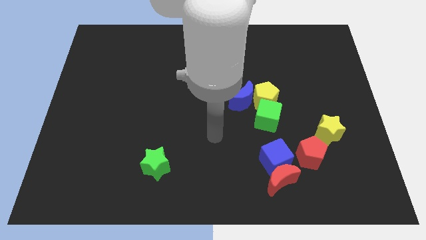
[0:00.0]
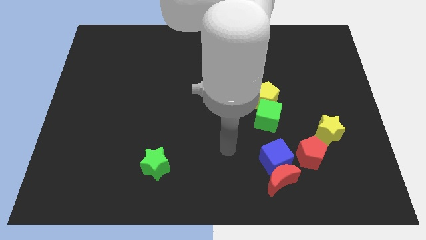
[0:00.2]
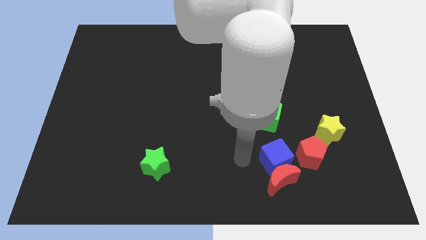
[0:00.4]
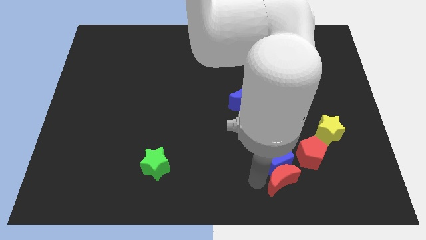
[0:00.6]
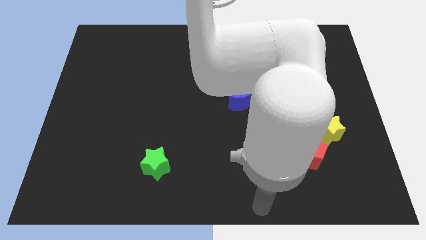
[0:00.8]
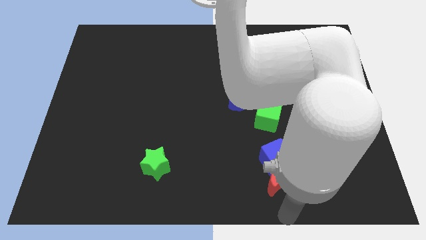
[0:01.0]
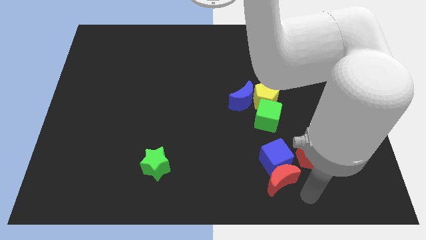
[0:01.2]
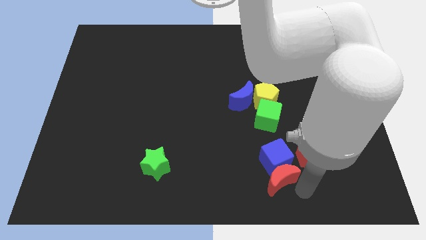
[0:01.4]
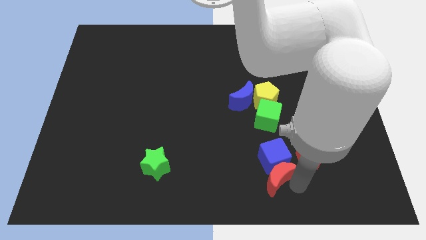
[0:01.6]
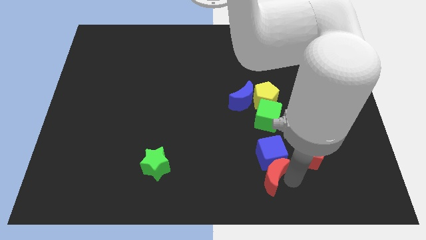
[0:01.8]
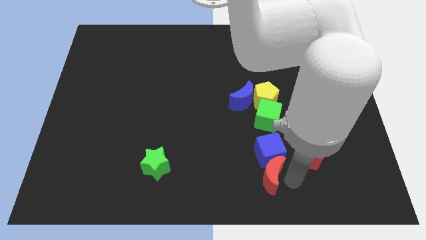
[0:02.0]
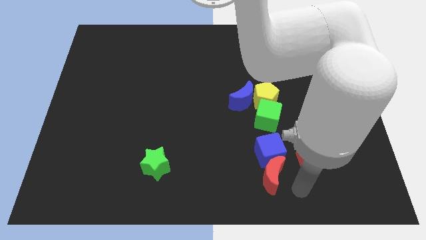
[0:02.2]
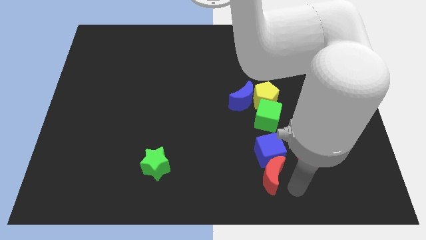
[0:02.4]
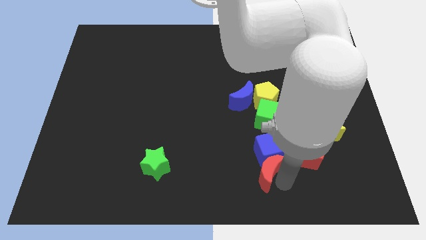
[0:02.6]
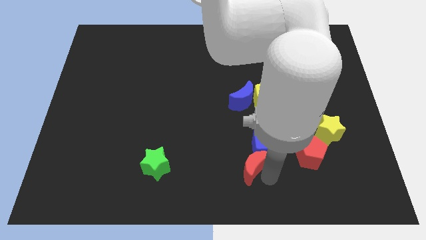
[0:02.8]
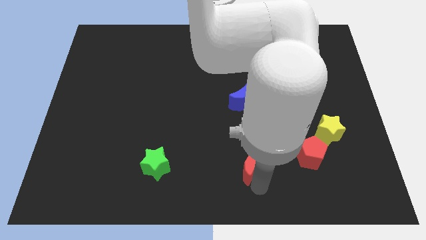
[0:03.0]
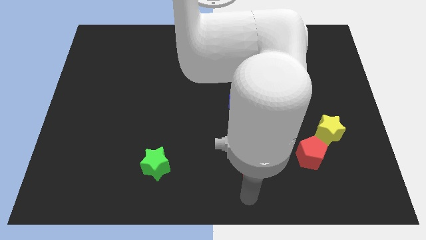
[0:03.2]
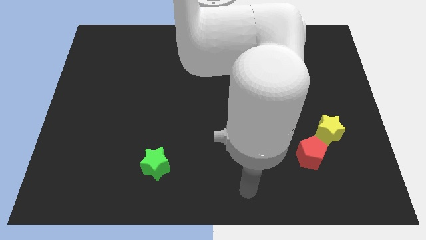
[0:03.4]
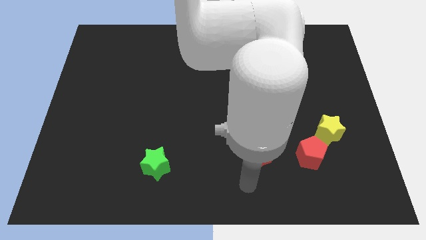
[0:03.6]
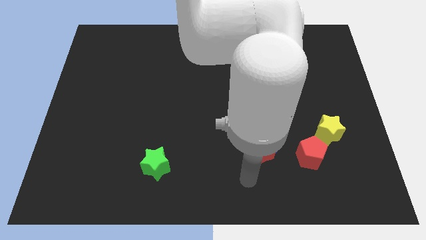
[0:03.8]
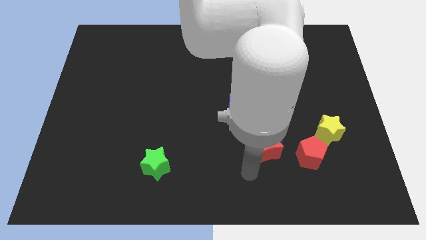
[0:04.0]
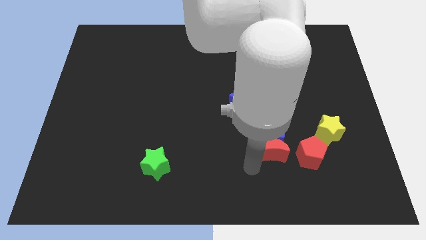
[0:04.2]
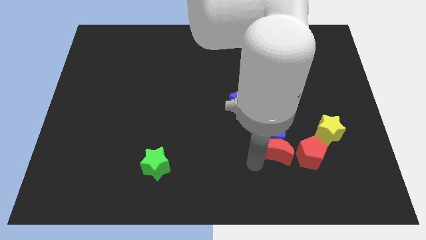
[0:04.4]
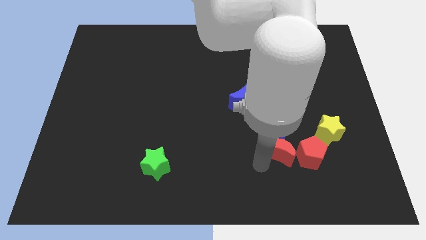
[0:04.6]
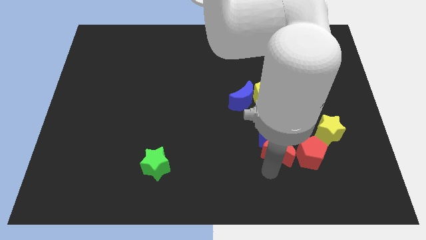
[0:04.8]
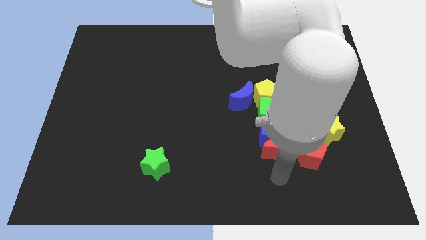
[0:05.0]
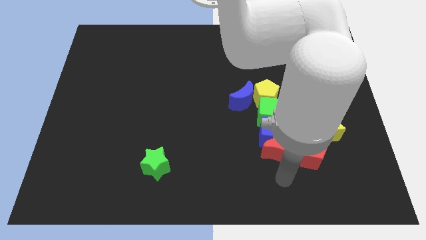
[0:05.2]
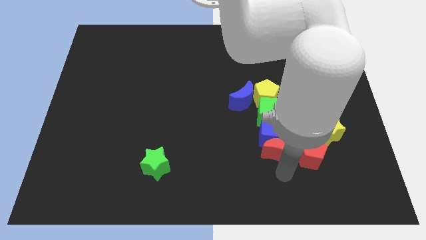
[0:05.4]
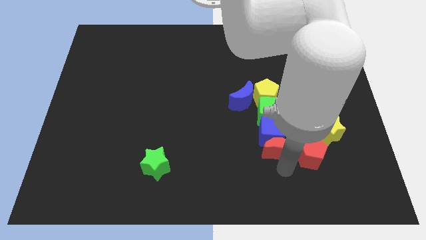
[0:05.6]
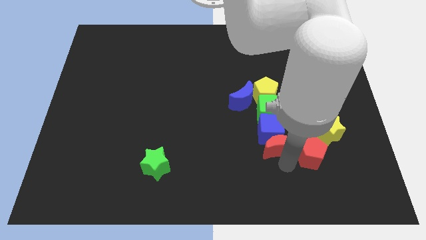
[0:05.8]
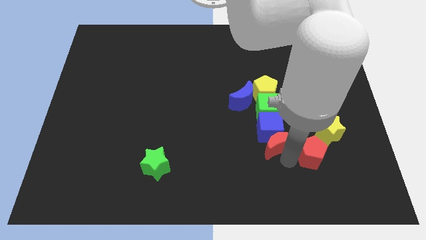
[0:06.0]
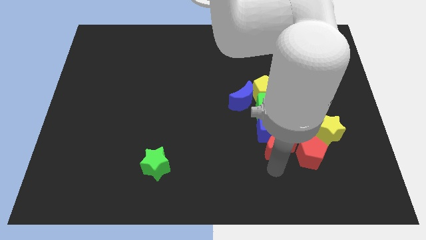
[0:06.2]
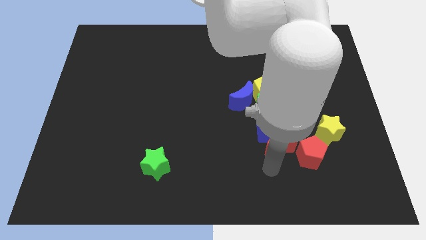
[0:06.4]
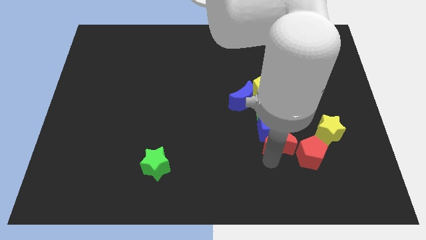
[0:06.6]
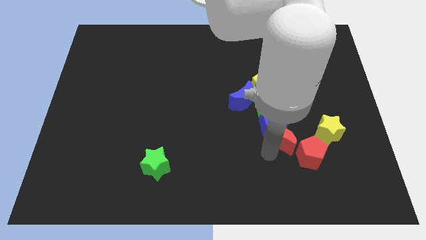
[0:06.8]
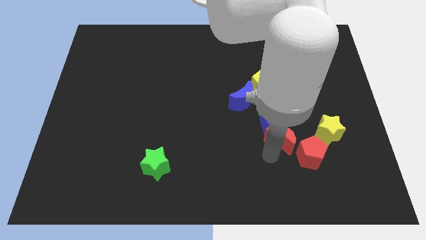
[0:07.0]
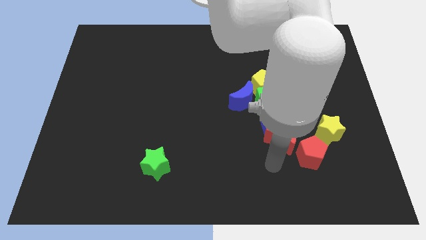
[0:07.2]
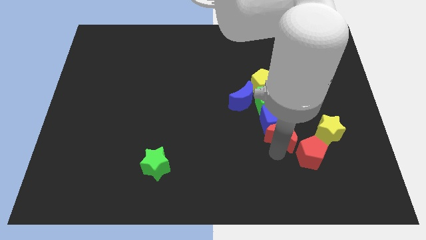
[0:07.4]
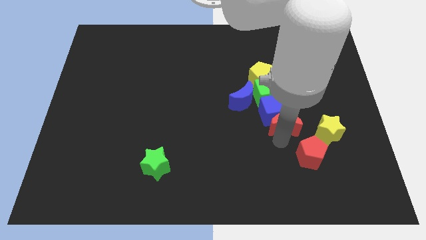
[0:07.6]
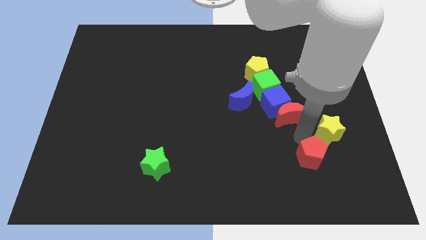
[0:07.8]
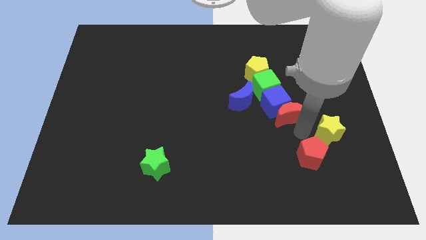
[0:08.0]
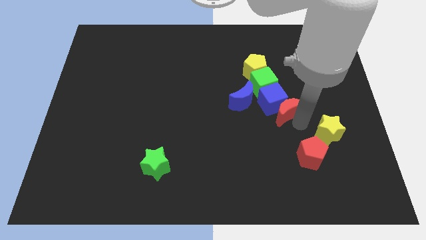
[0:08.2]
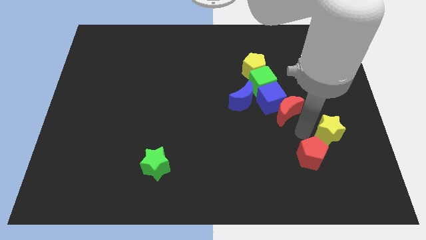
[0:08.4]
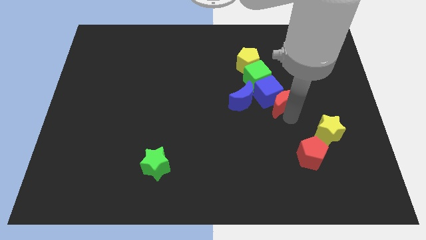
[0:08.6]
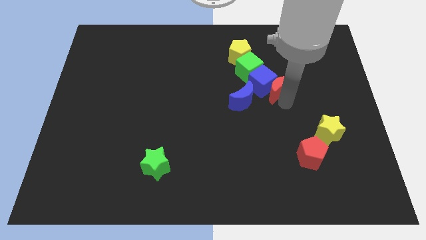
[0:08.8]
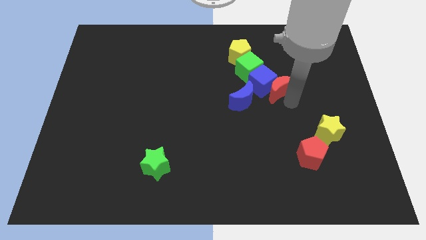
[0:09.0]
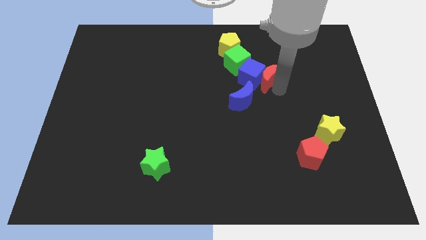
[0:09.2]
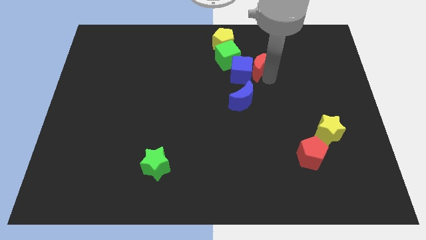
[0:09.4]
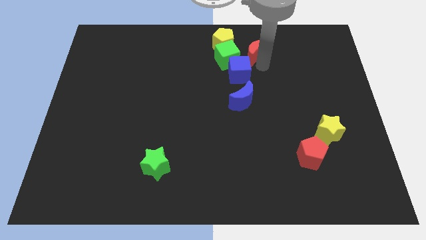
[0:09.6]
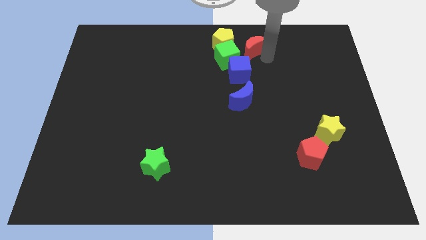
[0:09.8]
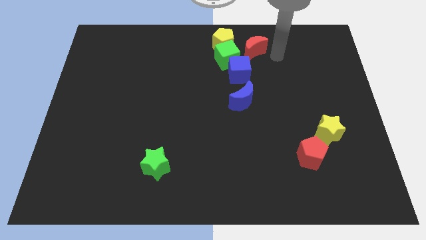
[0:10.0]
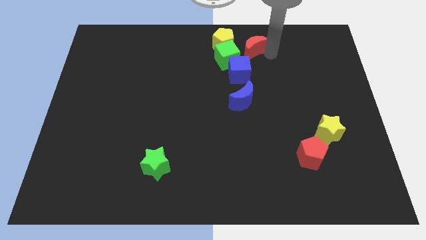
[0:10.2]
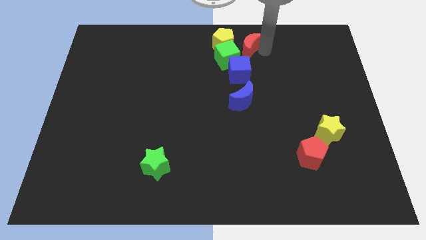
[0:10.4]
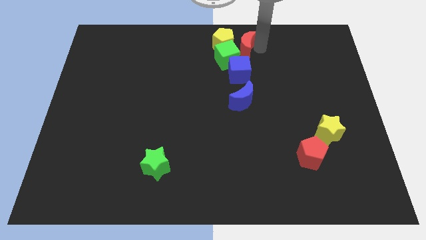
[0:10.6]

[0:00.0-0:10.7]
put the red moon next to the yellow pentagon

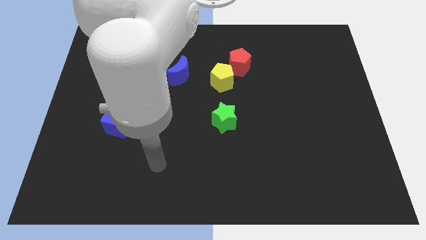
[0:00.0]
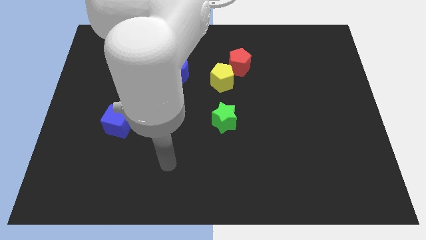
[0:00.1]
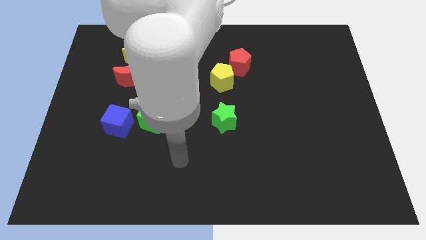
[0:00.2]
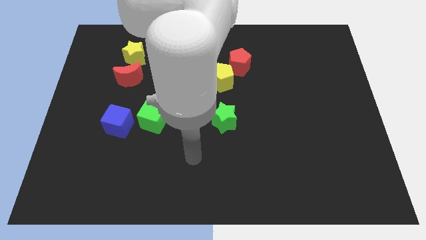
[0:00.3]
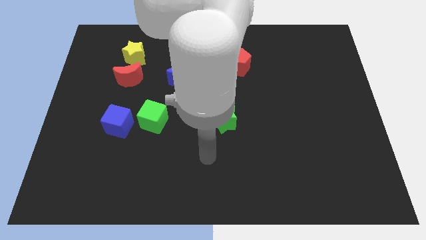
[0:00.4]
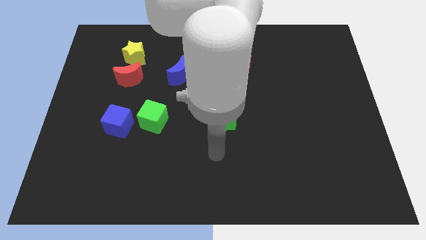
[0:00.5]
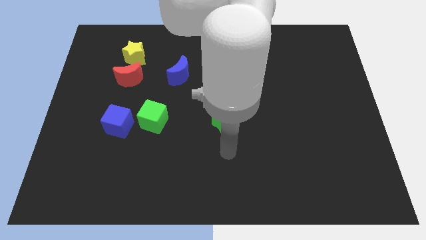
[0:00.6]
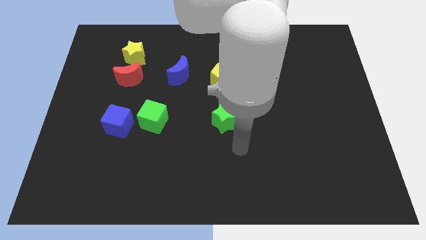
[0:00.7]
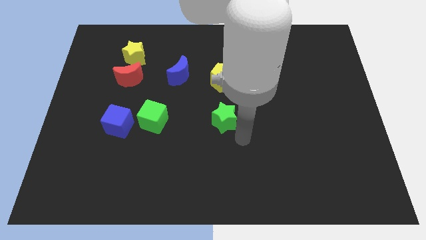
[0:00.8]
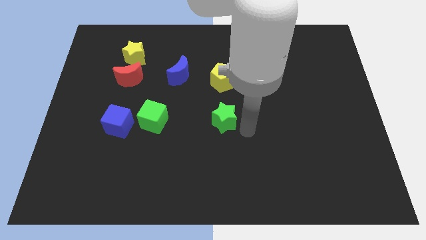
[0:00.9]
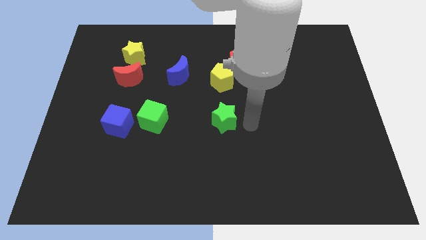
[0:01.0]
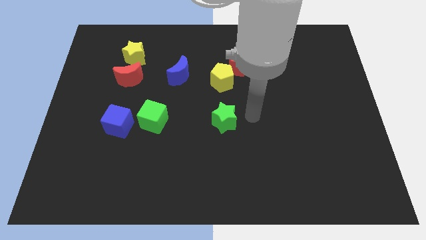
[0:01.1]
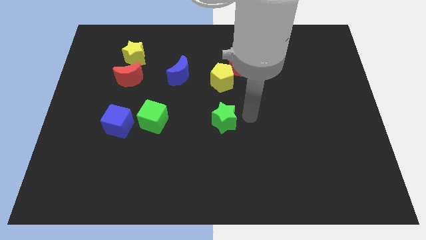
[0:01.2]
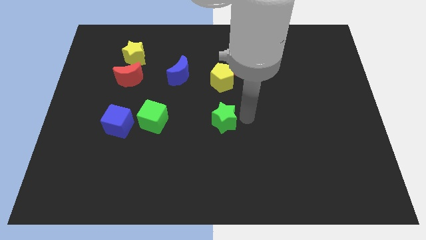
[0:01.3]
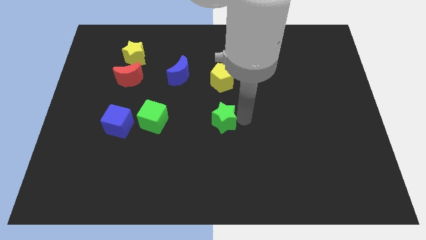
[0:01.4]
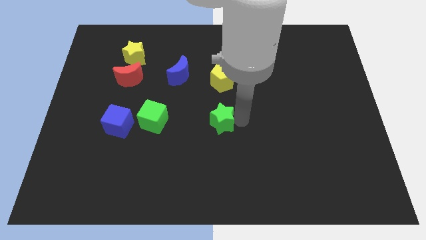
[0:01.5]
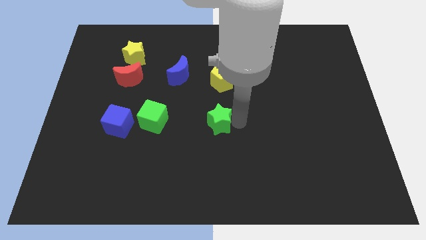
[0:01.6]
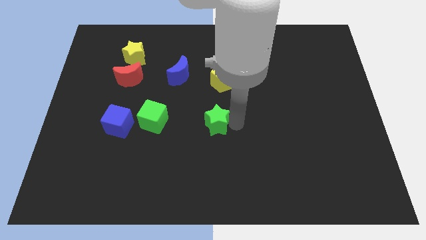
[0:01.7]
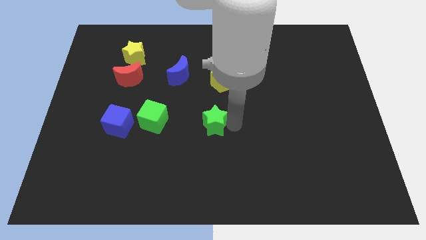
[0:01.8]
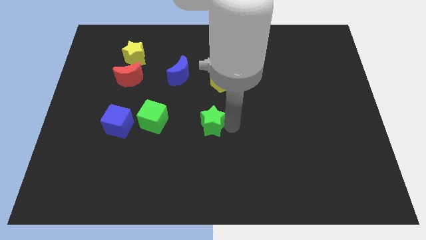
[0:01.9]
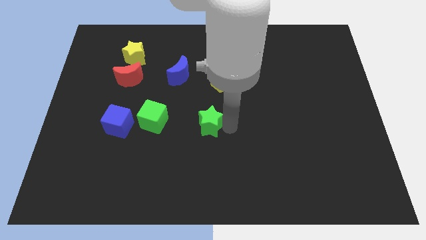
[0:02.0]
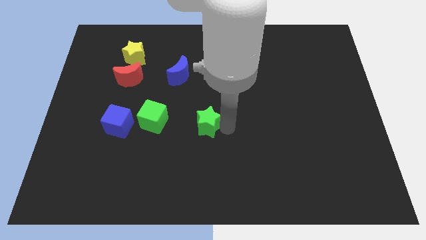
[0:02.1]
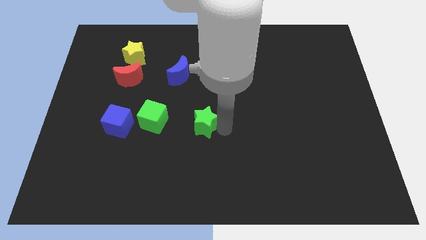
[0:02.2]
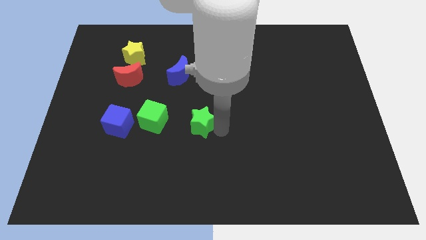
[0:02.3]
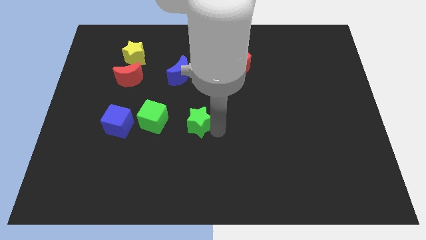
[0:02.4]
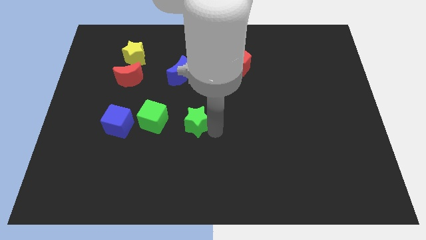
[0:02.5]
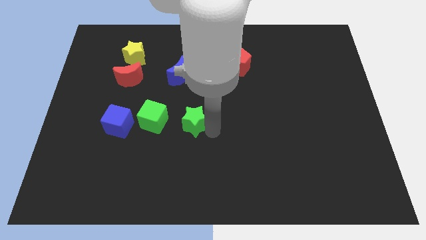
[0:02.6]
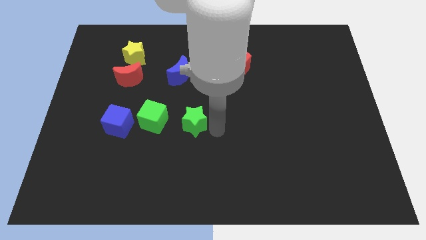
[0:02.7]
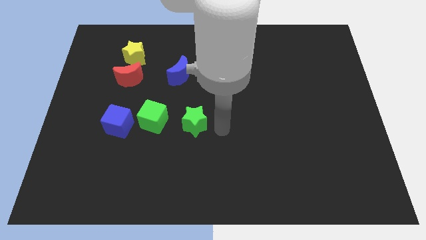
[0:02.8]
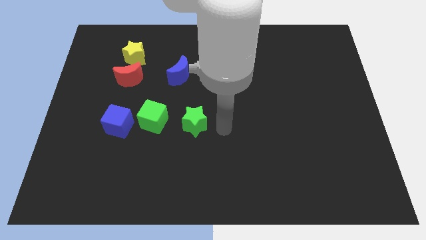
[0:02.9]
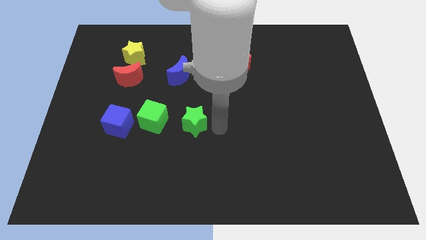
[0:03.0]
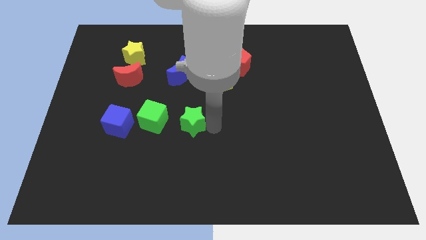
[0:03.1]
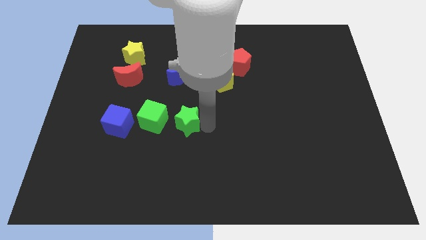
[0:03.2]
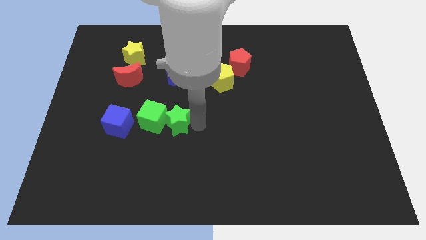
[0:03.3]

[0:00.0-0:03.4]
slide the green star next to the green cube
